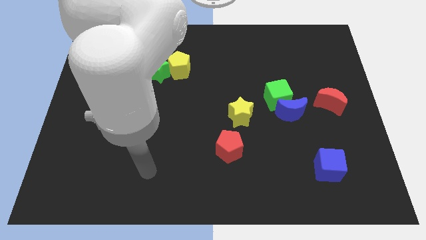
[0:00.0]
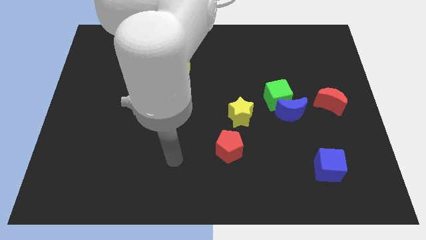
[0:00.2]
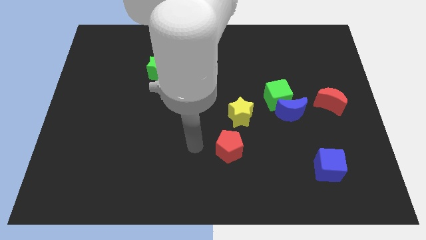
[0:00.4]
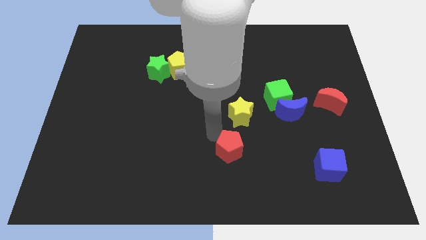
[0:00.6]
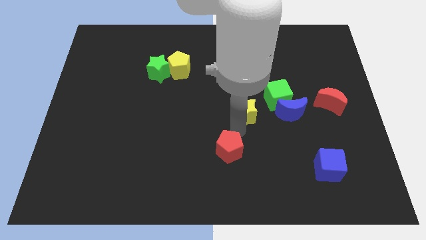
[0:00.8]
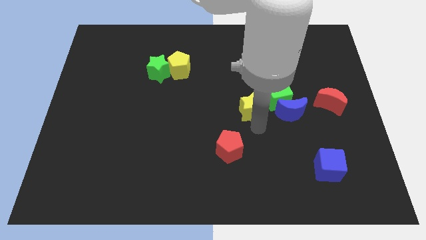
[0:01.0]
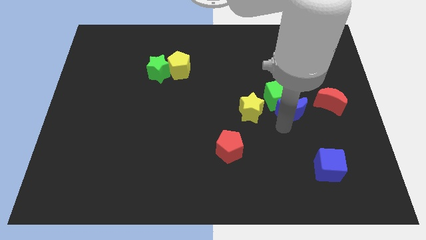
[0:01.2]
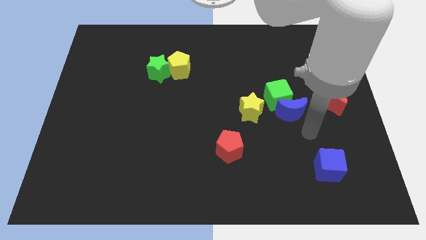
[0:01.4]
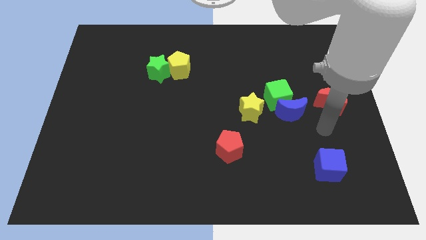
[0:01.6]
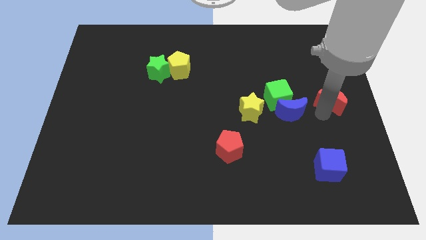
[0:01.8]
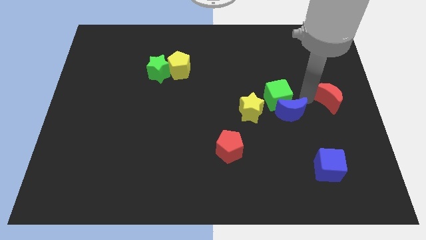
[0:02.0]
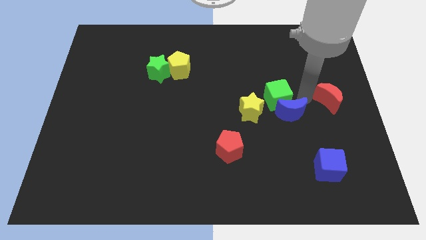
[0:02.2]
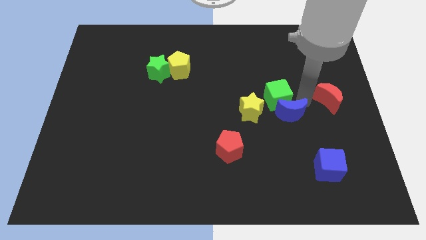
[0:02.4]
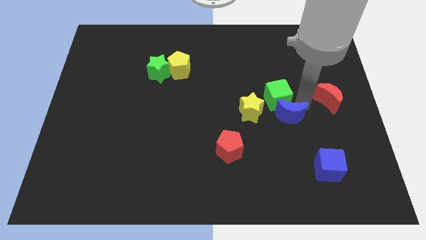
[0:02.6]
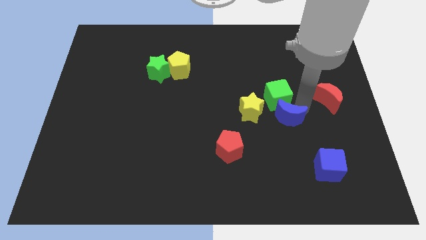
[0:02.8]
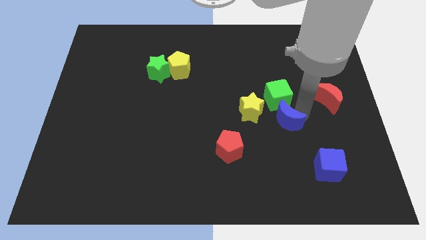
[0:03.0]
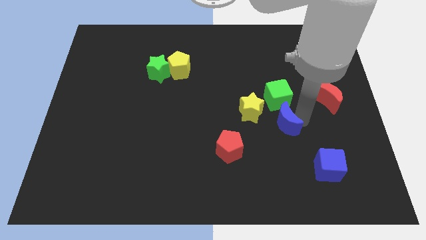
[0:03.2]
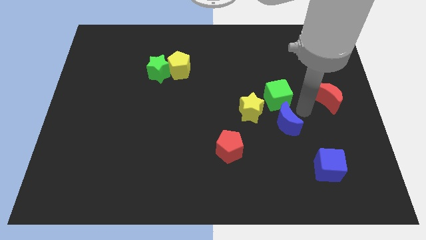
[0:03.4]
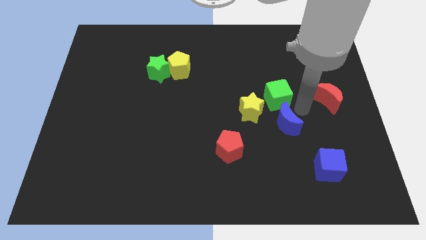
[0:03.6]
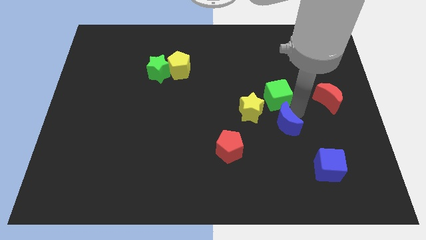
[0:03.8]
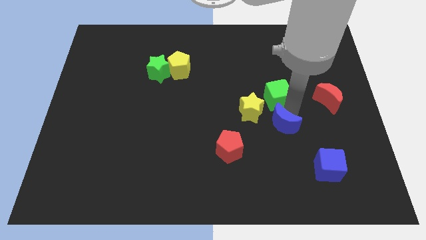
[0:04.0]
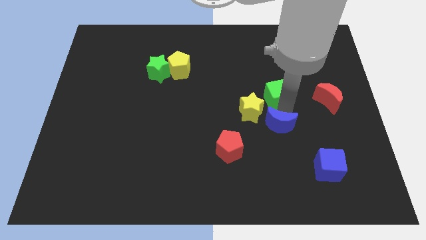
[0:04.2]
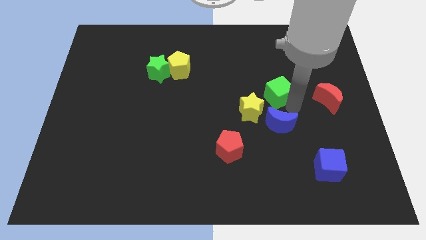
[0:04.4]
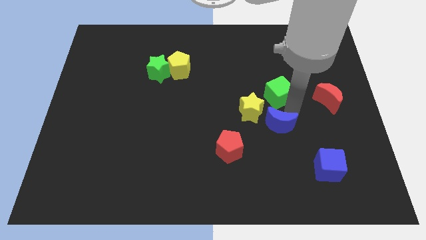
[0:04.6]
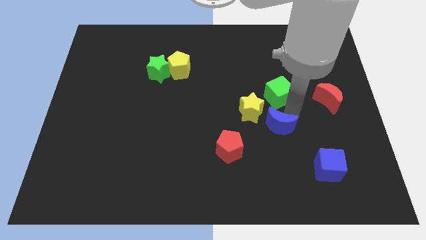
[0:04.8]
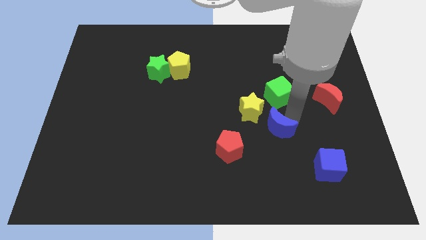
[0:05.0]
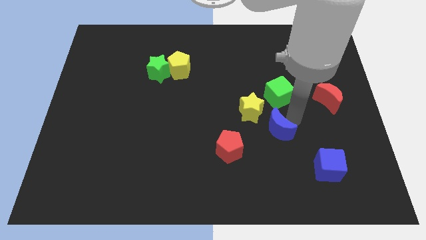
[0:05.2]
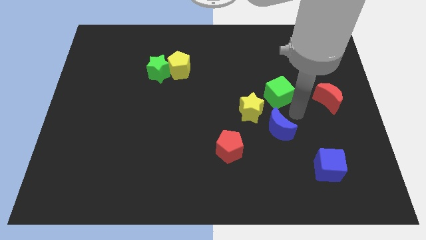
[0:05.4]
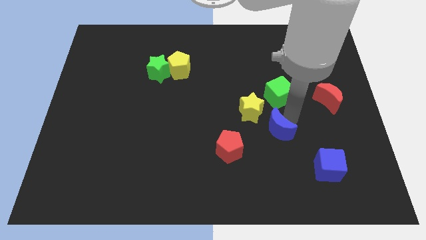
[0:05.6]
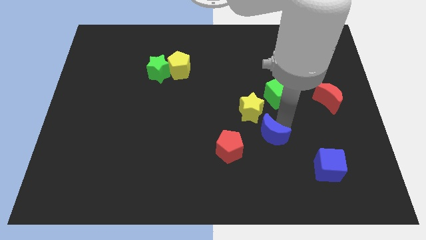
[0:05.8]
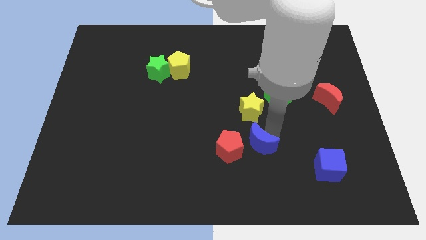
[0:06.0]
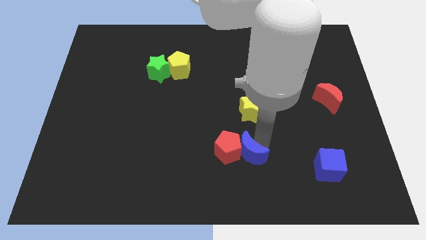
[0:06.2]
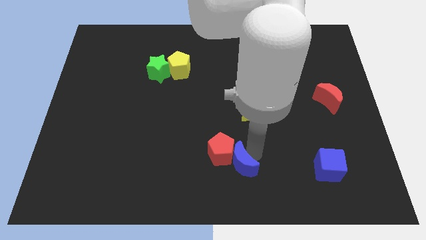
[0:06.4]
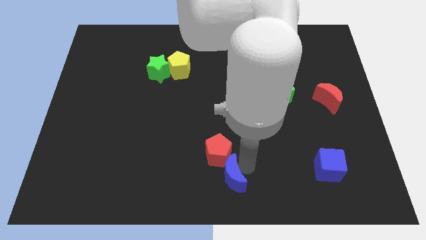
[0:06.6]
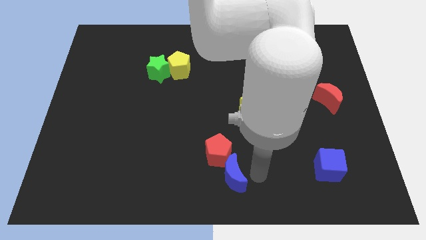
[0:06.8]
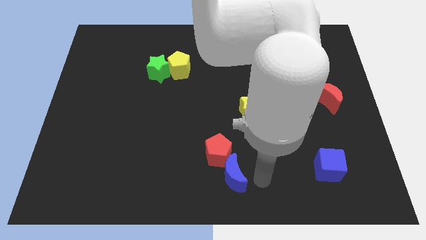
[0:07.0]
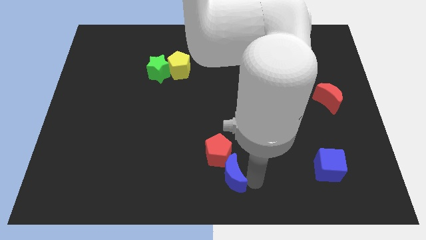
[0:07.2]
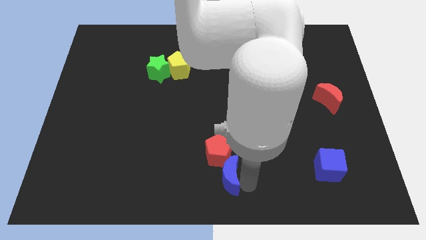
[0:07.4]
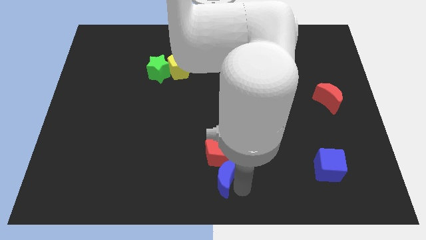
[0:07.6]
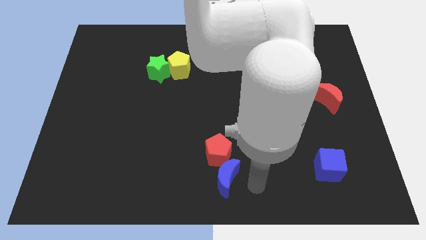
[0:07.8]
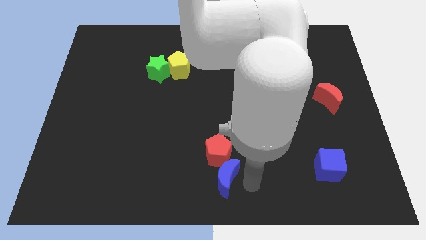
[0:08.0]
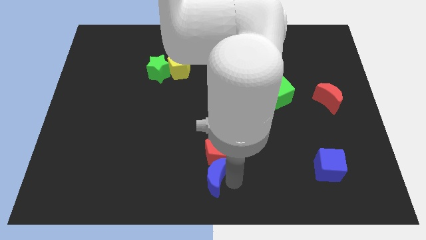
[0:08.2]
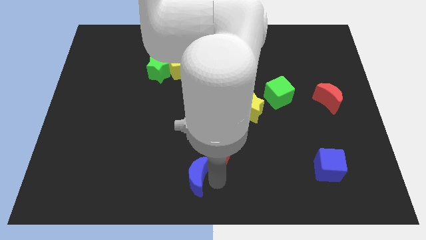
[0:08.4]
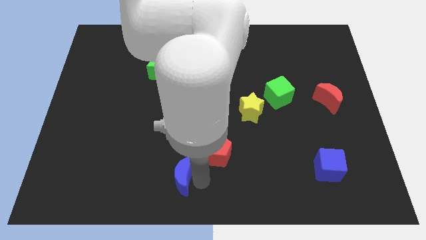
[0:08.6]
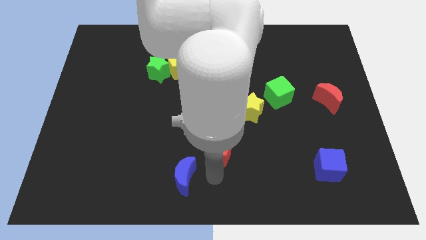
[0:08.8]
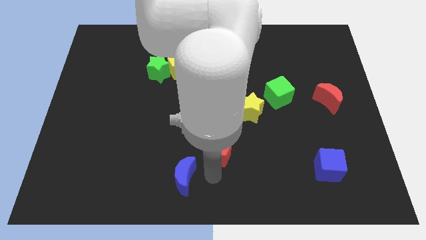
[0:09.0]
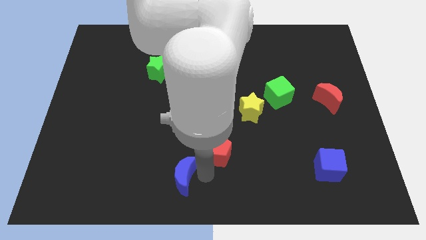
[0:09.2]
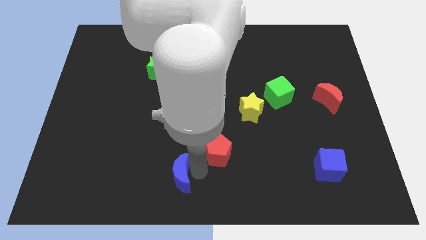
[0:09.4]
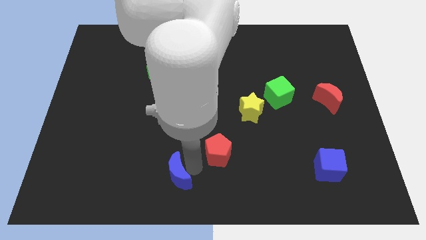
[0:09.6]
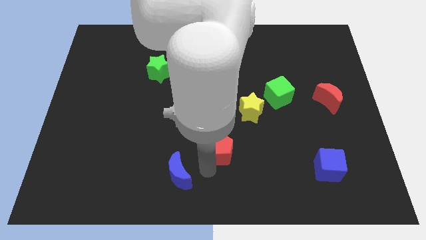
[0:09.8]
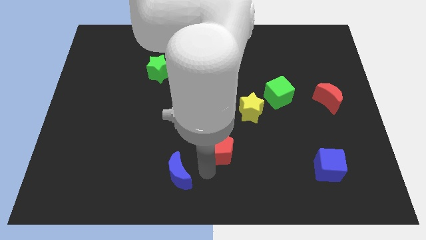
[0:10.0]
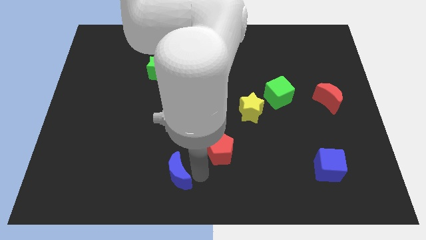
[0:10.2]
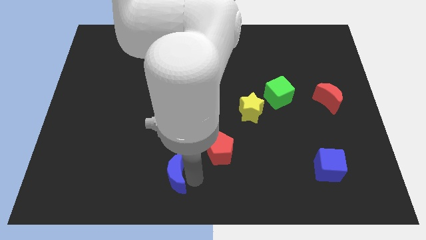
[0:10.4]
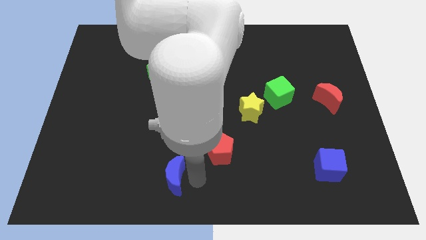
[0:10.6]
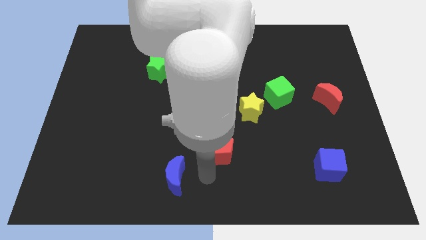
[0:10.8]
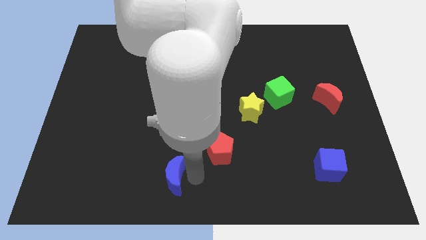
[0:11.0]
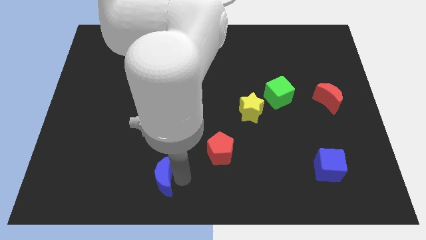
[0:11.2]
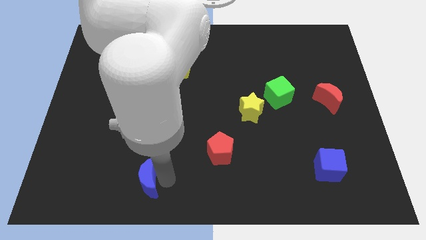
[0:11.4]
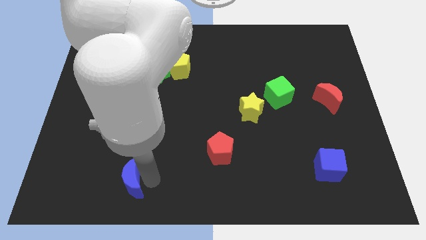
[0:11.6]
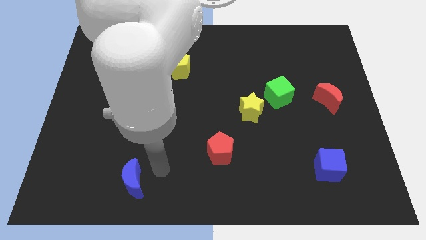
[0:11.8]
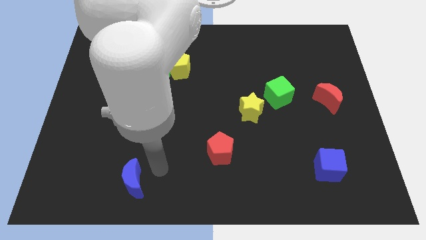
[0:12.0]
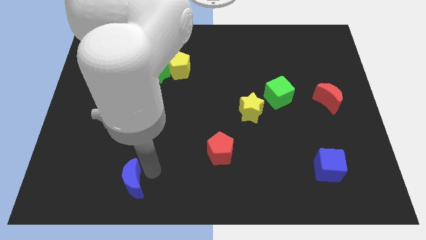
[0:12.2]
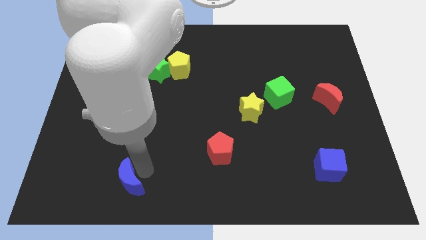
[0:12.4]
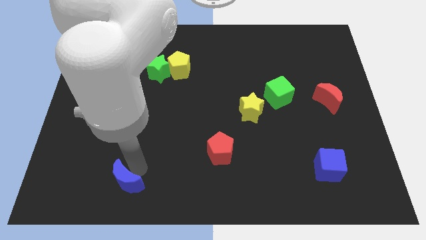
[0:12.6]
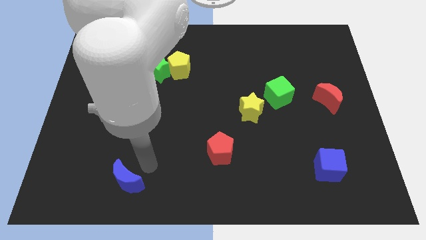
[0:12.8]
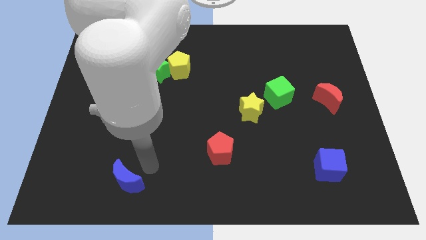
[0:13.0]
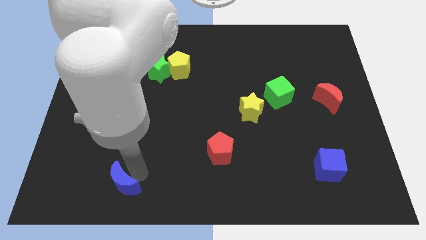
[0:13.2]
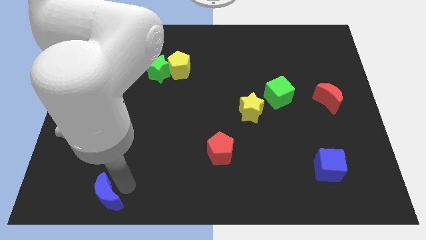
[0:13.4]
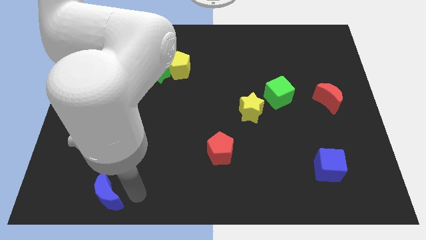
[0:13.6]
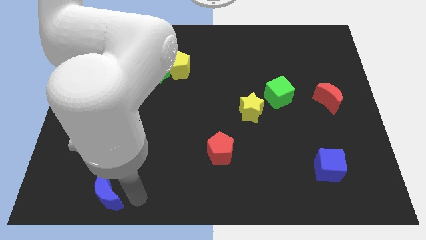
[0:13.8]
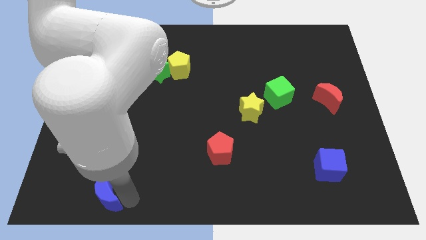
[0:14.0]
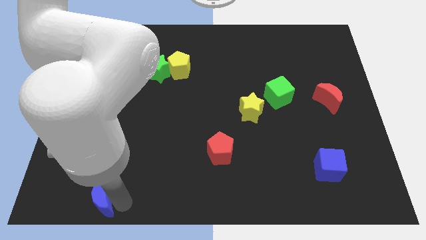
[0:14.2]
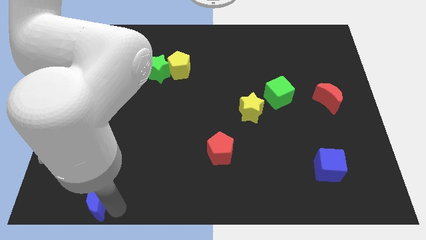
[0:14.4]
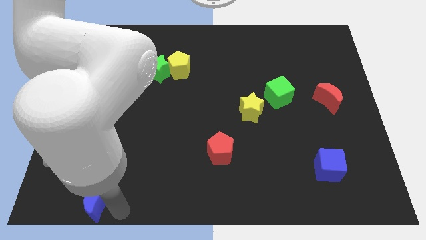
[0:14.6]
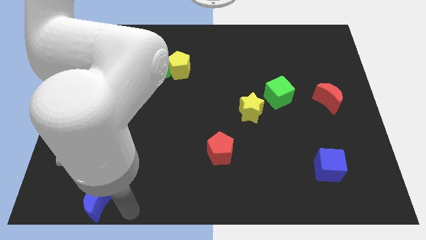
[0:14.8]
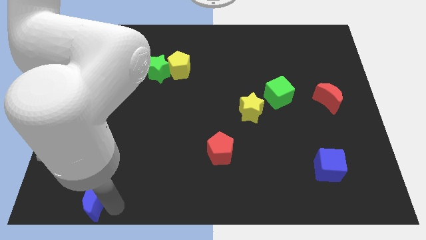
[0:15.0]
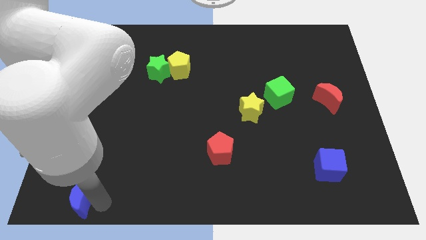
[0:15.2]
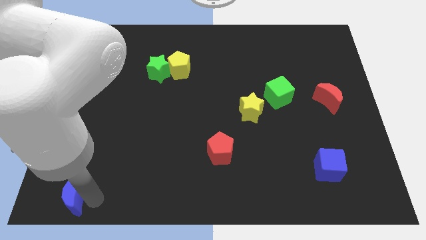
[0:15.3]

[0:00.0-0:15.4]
push the blue moon to the bottom left of the board

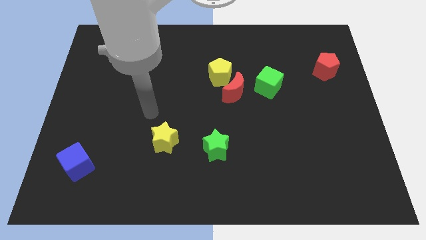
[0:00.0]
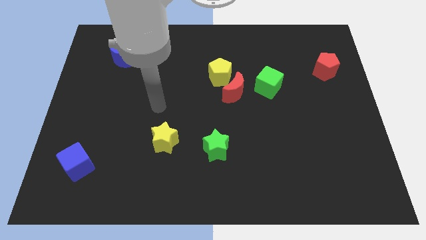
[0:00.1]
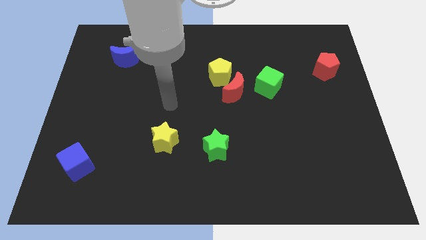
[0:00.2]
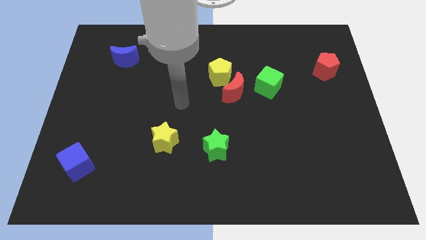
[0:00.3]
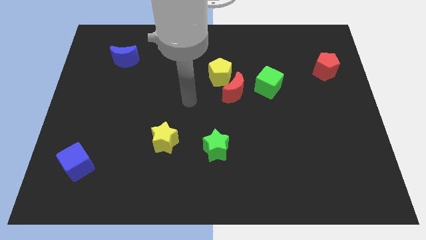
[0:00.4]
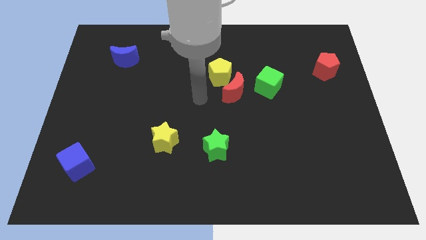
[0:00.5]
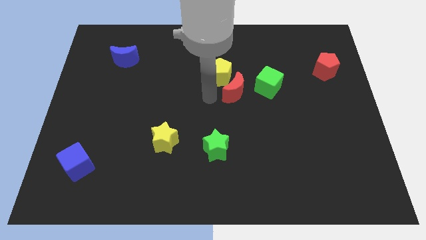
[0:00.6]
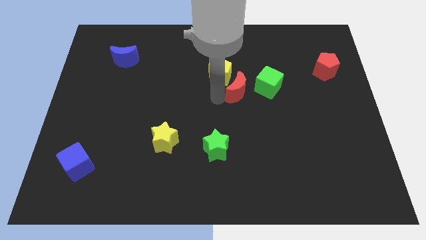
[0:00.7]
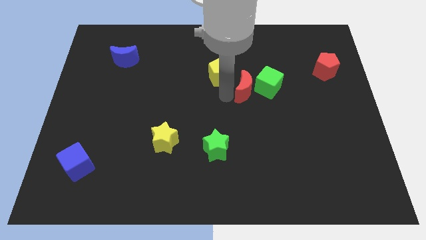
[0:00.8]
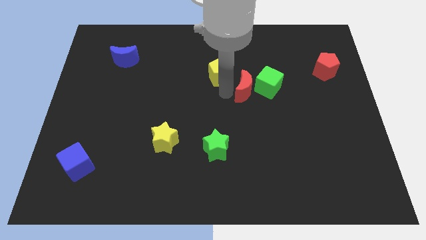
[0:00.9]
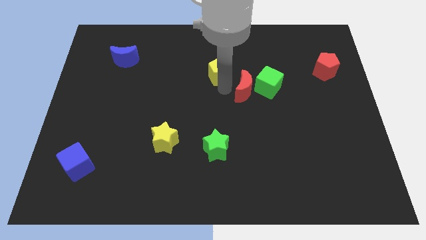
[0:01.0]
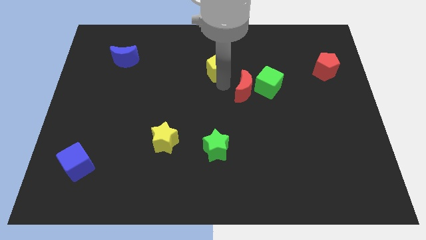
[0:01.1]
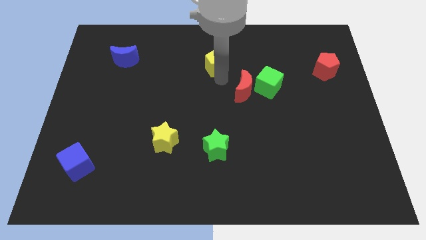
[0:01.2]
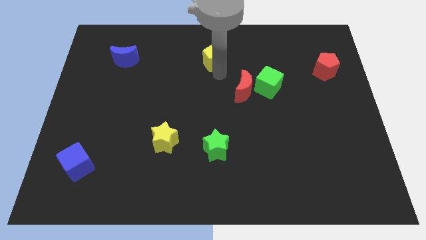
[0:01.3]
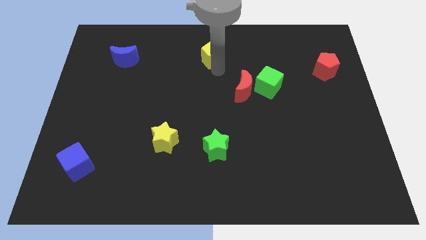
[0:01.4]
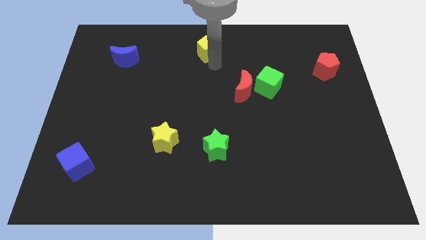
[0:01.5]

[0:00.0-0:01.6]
push the yellow pentagon to the top side
